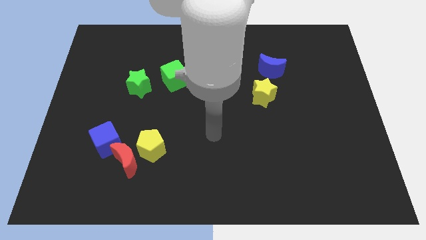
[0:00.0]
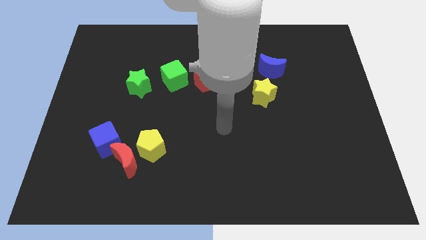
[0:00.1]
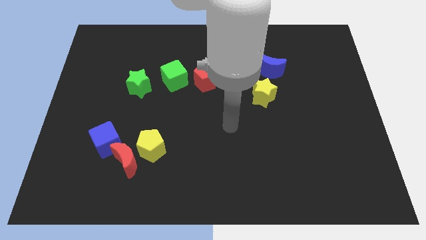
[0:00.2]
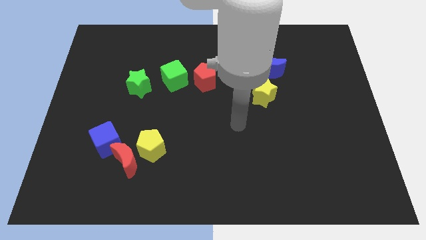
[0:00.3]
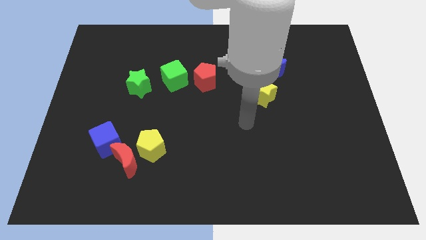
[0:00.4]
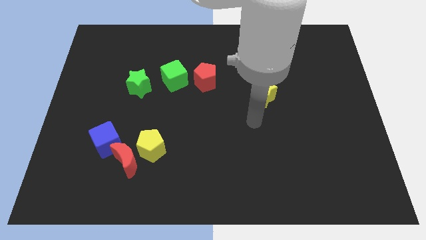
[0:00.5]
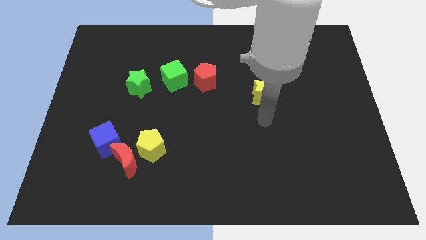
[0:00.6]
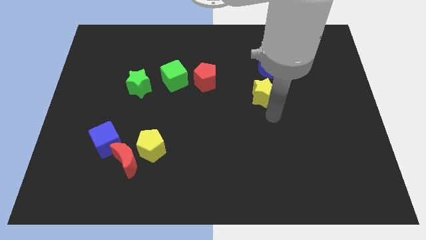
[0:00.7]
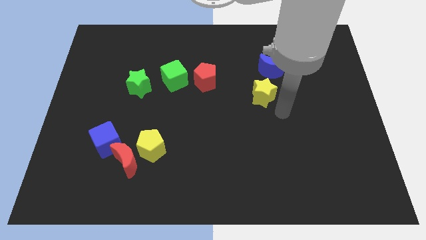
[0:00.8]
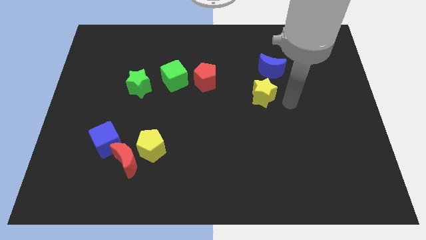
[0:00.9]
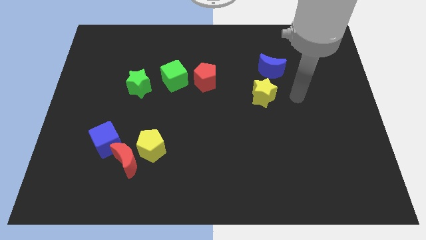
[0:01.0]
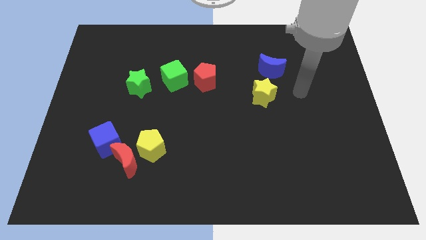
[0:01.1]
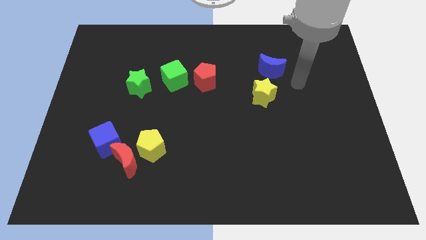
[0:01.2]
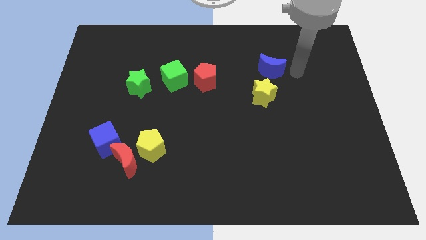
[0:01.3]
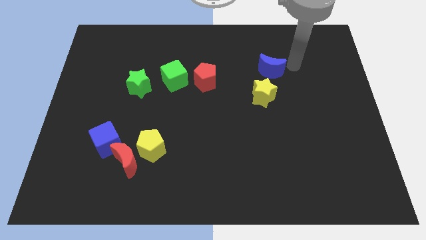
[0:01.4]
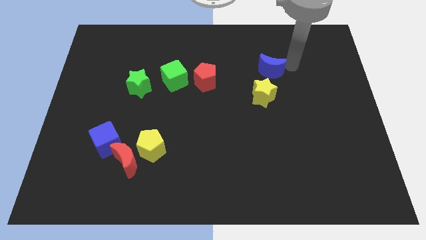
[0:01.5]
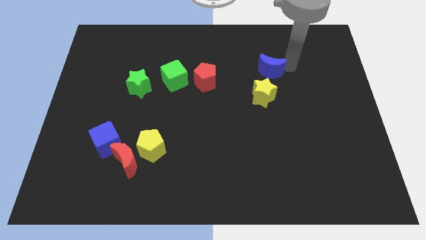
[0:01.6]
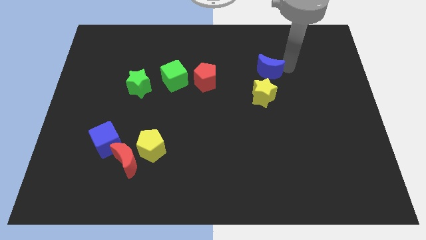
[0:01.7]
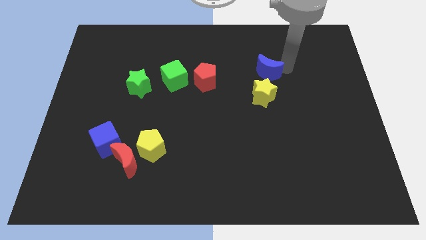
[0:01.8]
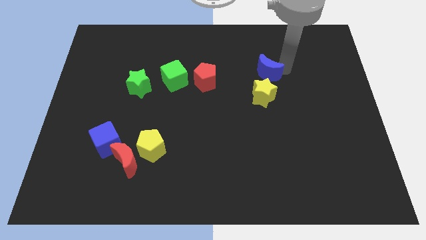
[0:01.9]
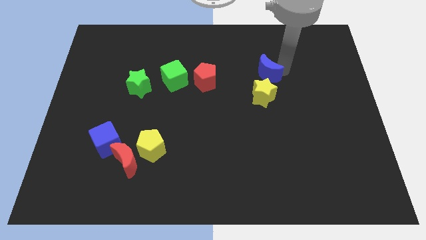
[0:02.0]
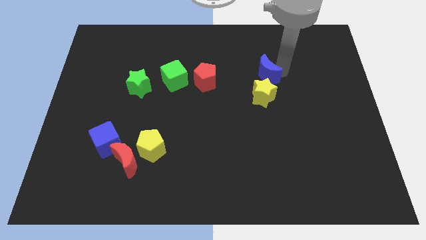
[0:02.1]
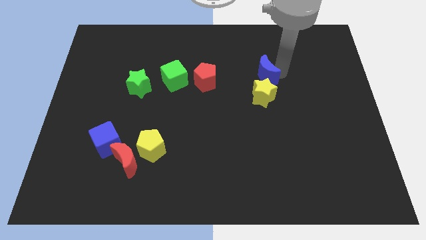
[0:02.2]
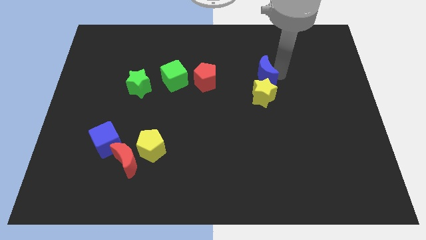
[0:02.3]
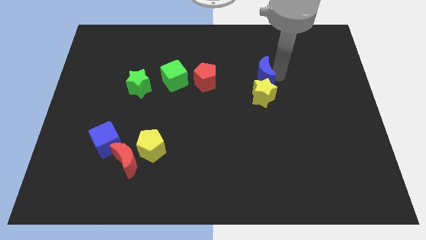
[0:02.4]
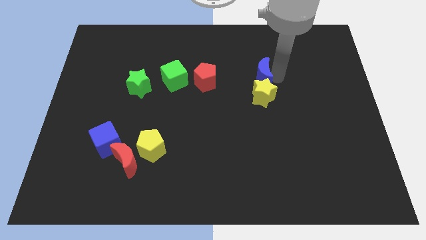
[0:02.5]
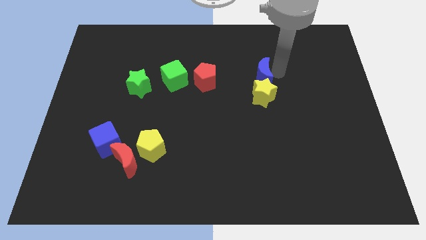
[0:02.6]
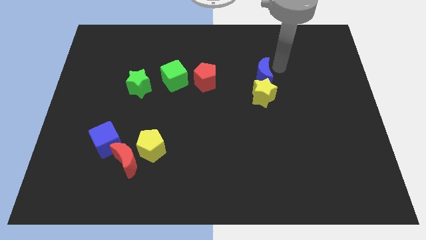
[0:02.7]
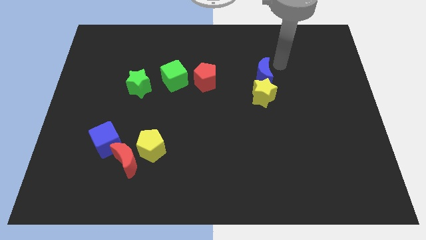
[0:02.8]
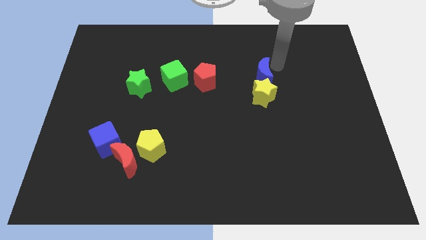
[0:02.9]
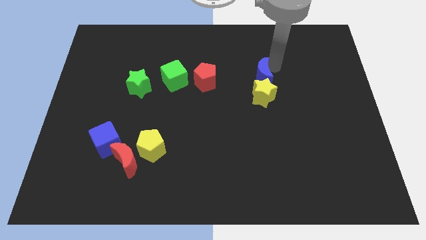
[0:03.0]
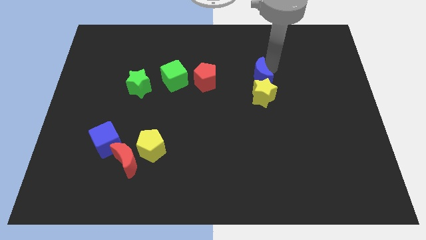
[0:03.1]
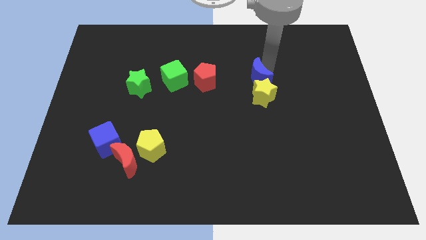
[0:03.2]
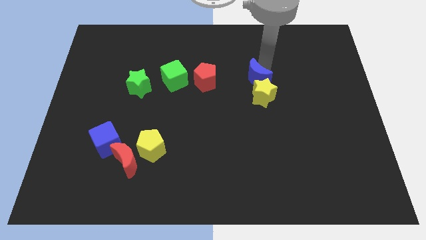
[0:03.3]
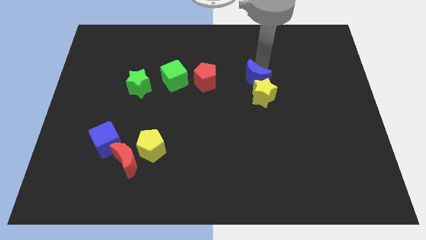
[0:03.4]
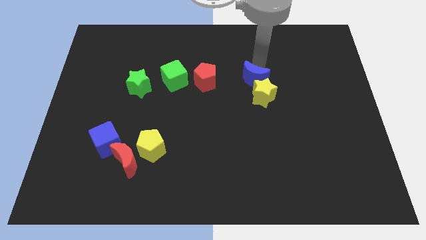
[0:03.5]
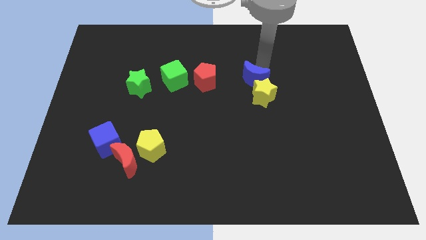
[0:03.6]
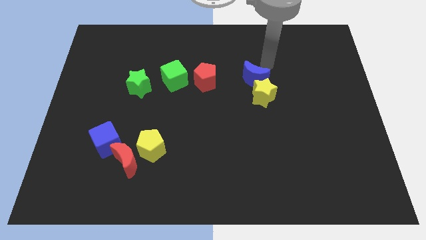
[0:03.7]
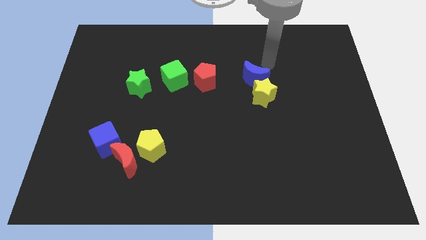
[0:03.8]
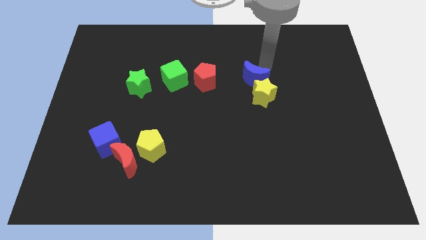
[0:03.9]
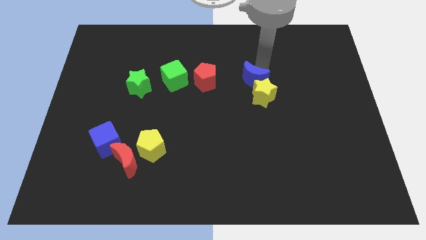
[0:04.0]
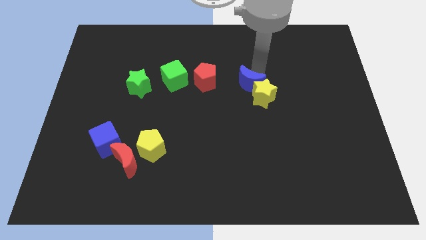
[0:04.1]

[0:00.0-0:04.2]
slightly move the blue moon diagonally down and to the left

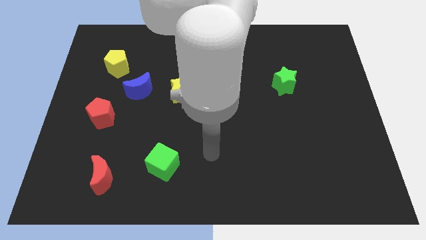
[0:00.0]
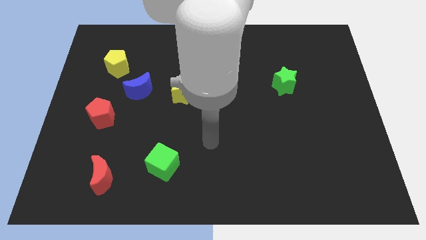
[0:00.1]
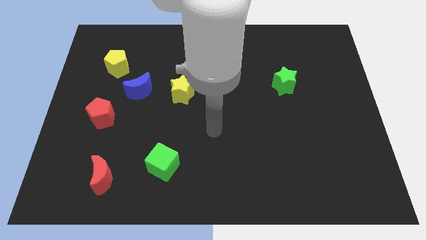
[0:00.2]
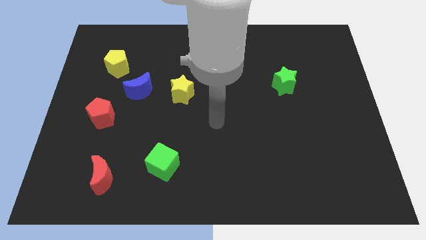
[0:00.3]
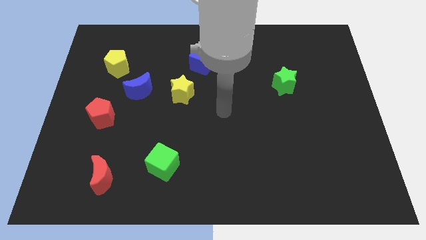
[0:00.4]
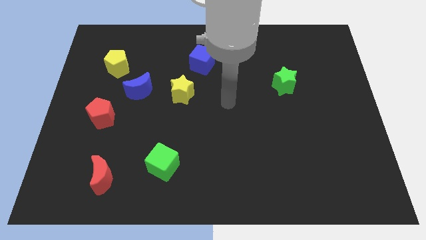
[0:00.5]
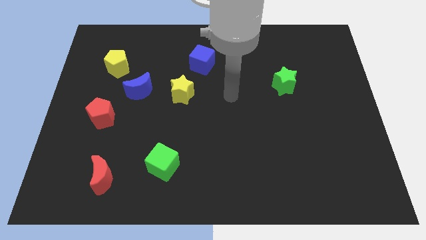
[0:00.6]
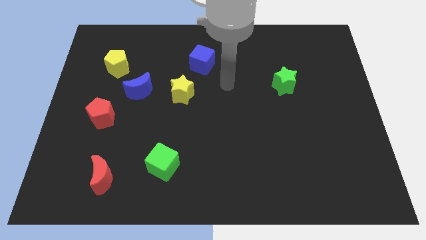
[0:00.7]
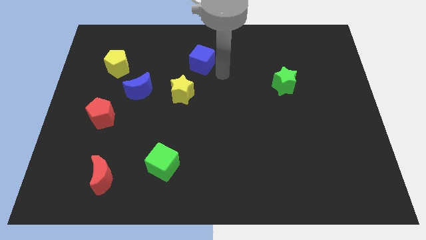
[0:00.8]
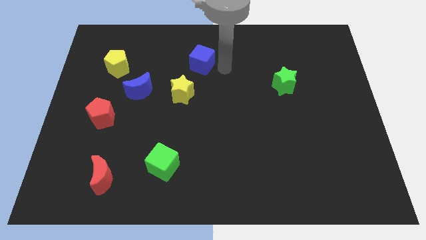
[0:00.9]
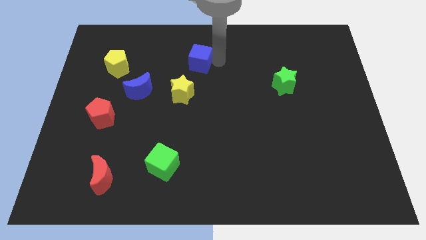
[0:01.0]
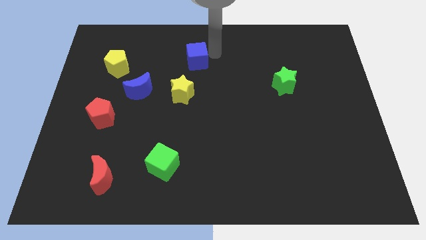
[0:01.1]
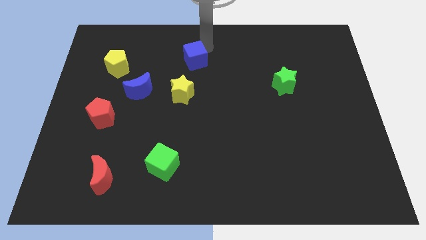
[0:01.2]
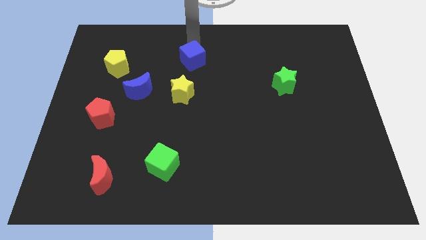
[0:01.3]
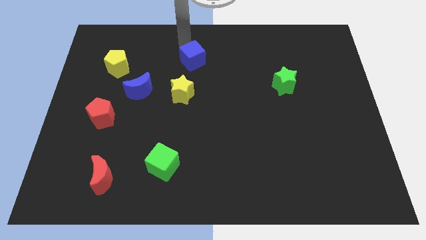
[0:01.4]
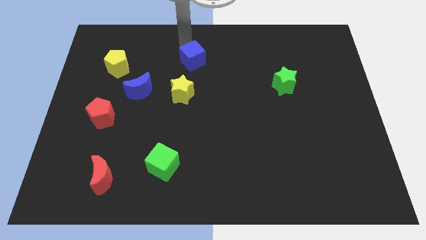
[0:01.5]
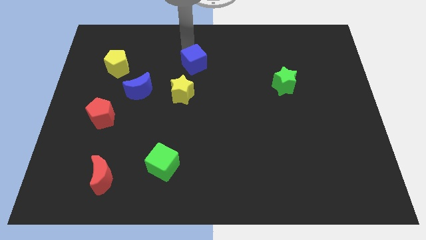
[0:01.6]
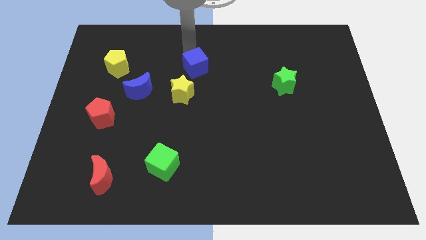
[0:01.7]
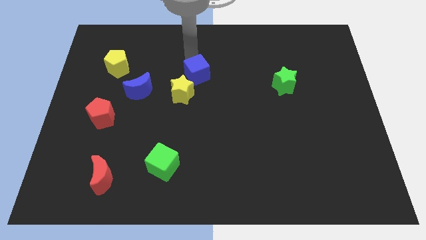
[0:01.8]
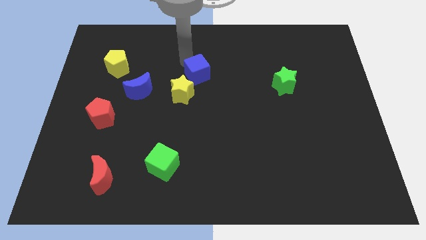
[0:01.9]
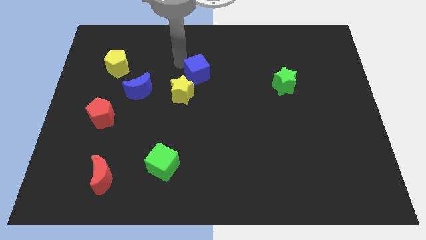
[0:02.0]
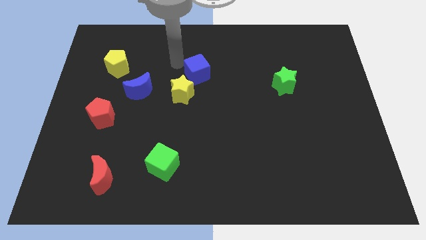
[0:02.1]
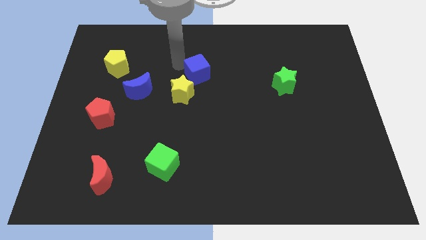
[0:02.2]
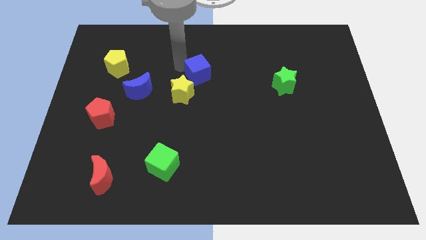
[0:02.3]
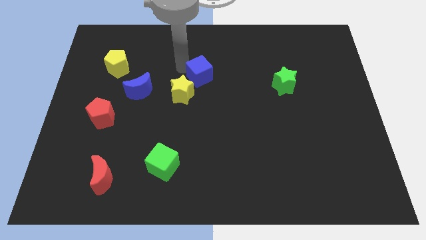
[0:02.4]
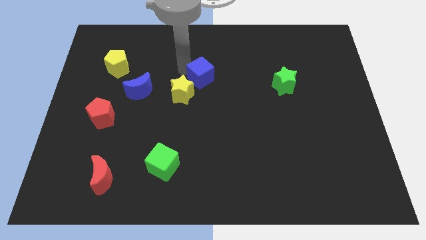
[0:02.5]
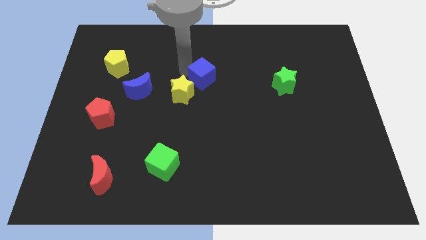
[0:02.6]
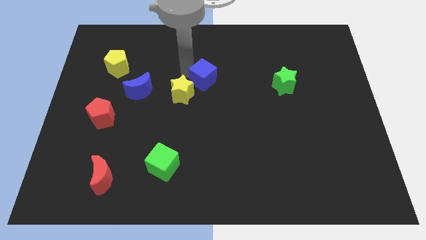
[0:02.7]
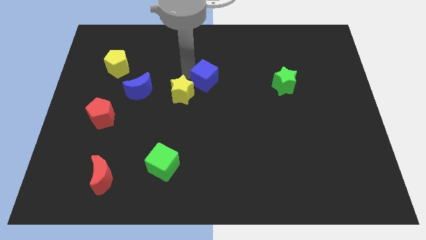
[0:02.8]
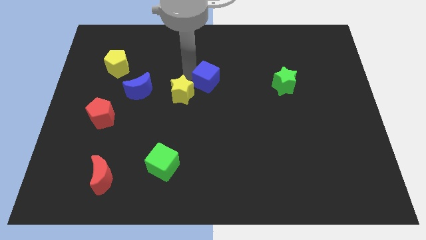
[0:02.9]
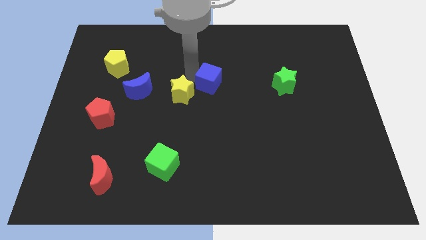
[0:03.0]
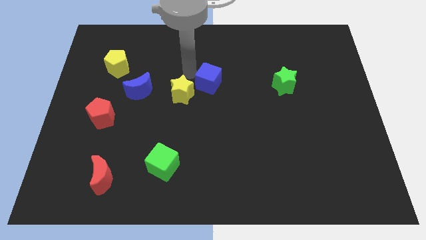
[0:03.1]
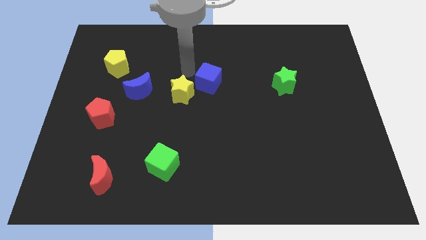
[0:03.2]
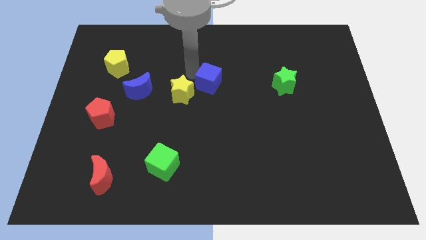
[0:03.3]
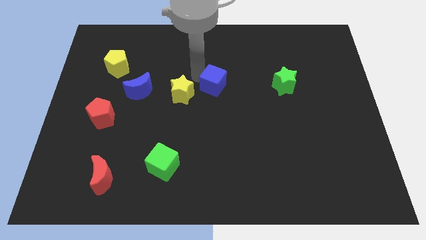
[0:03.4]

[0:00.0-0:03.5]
push the blue cube a bit downwards and to the right diagonally
